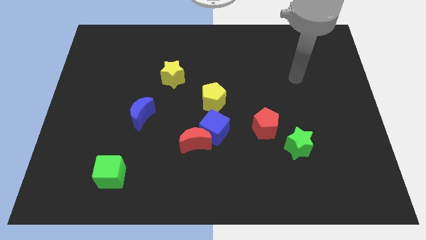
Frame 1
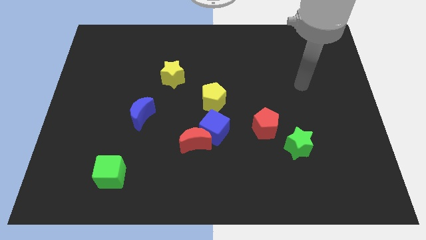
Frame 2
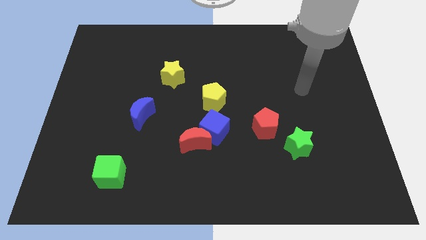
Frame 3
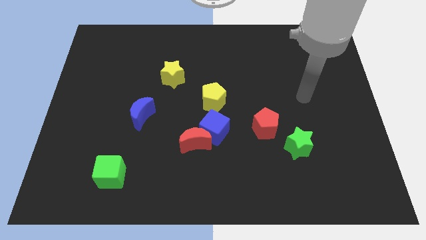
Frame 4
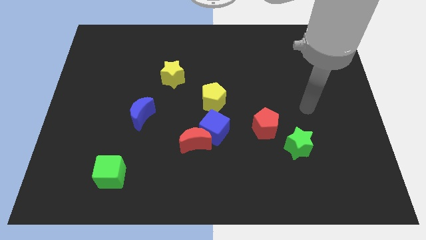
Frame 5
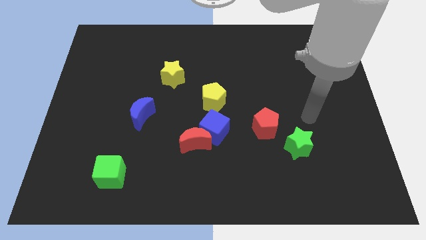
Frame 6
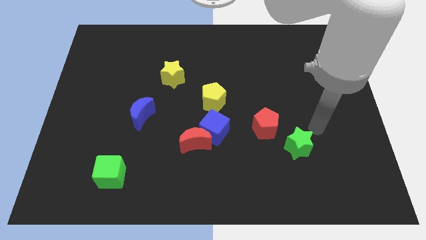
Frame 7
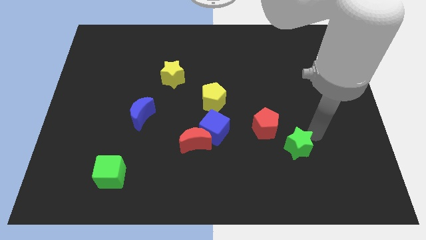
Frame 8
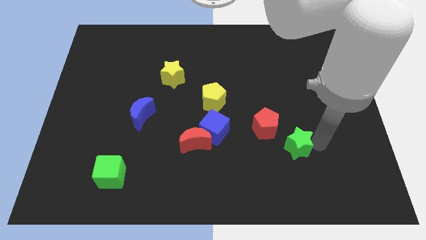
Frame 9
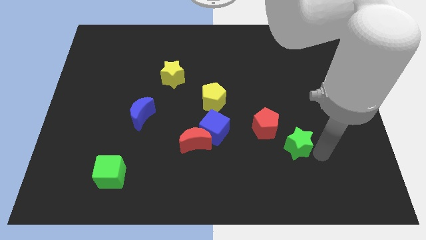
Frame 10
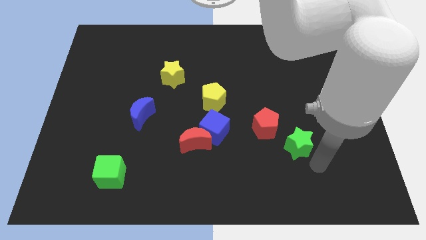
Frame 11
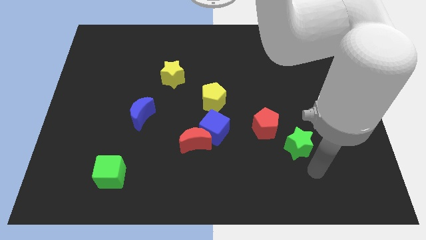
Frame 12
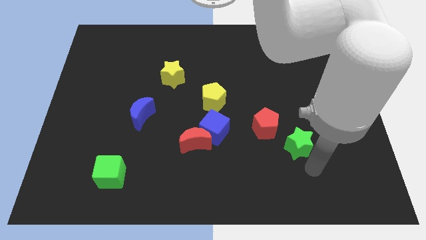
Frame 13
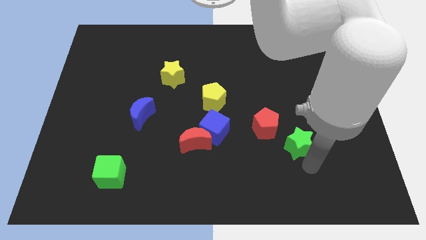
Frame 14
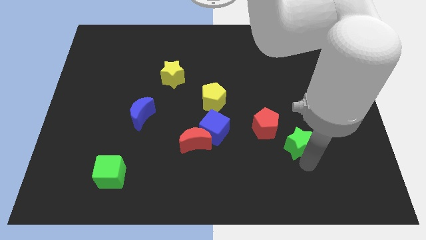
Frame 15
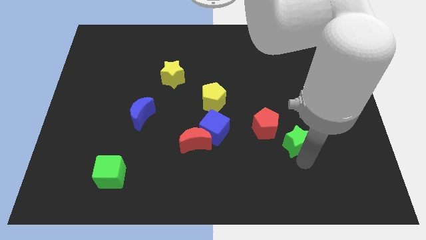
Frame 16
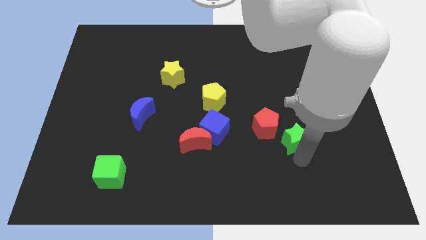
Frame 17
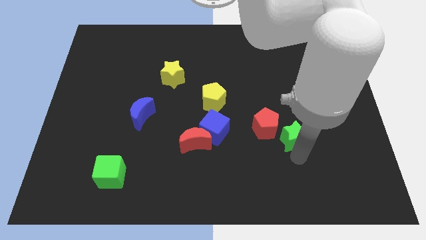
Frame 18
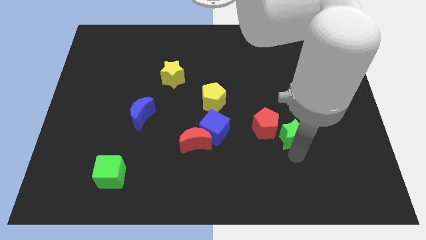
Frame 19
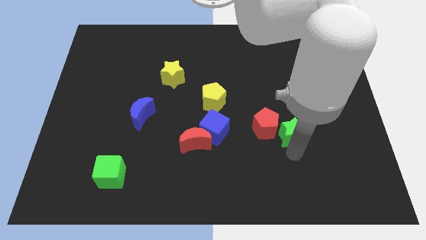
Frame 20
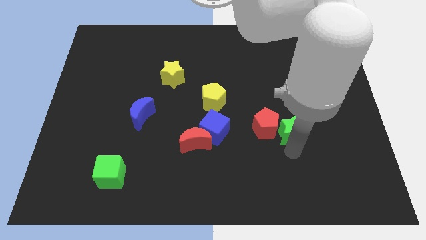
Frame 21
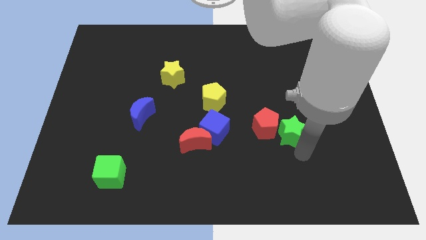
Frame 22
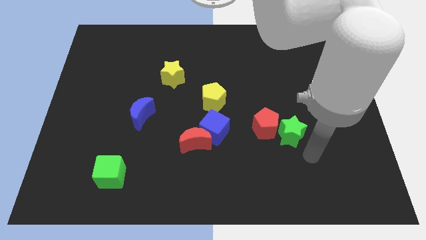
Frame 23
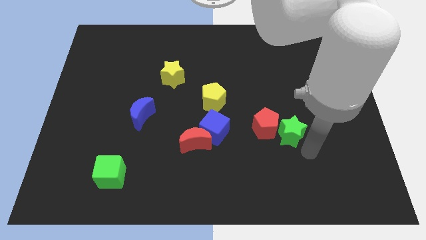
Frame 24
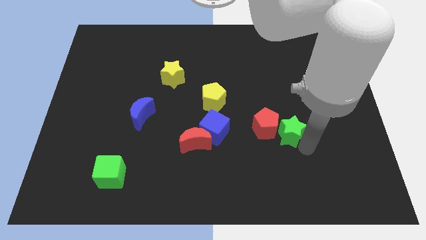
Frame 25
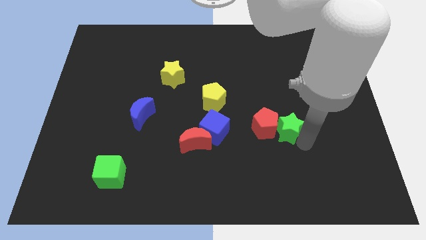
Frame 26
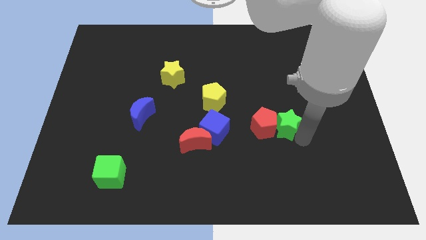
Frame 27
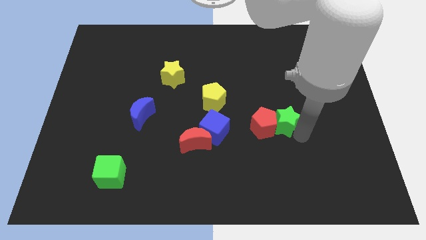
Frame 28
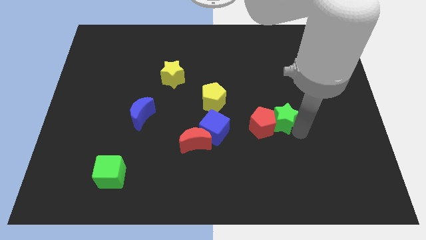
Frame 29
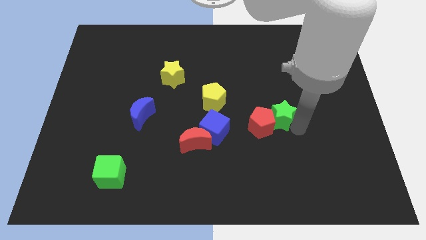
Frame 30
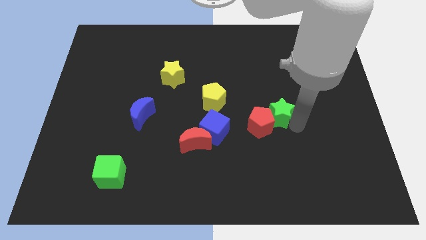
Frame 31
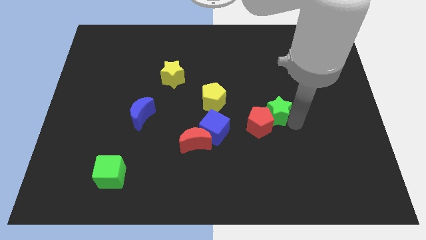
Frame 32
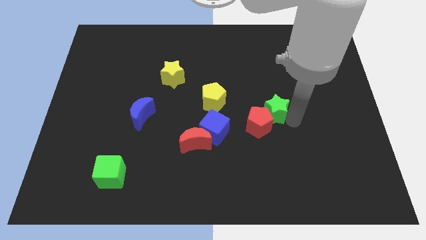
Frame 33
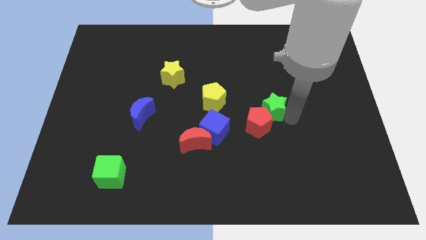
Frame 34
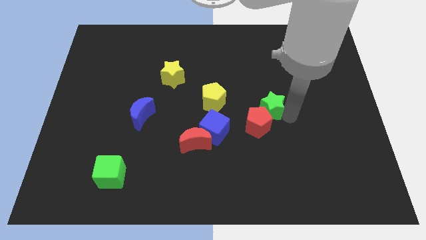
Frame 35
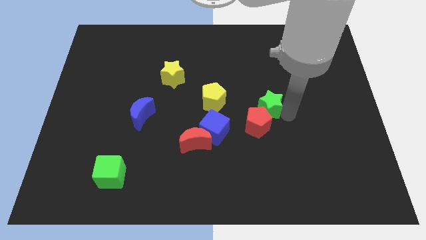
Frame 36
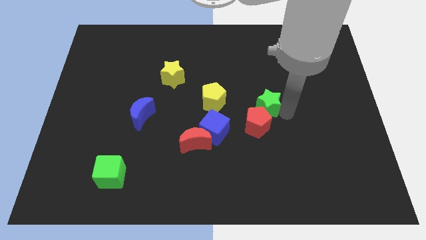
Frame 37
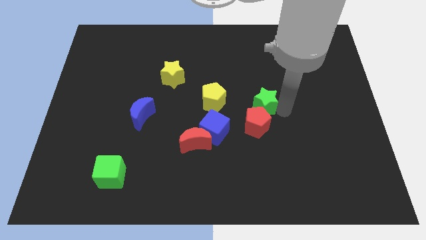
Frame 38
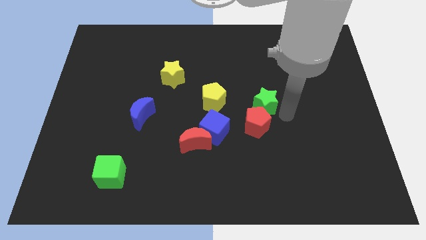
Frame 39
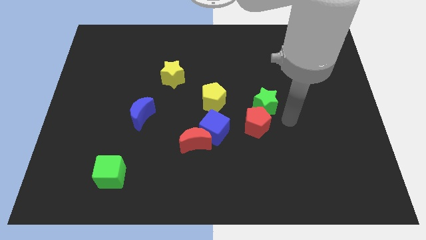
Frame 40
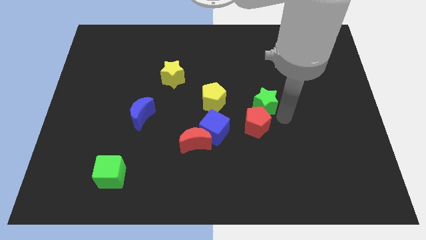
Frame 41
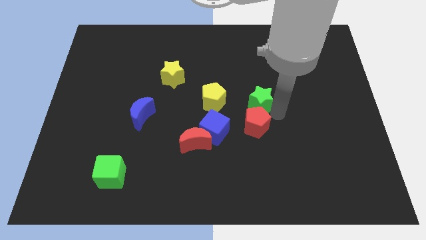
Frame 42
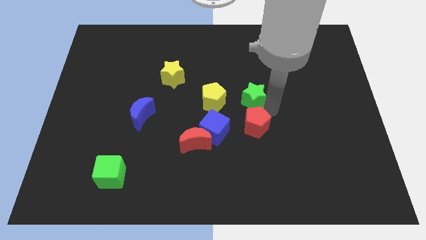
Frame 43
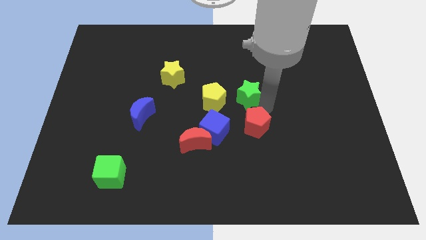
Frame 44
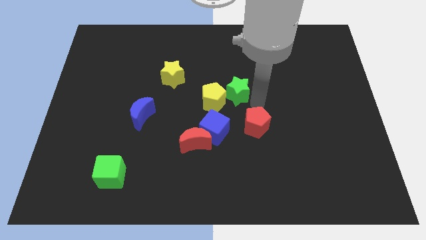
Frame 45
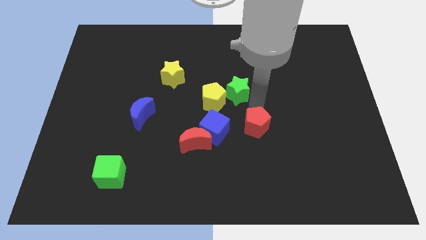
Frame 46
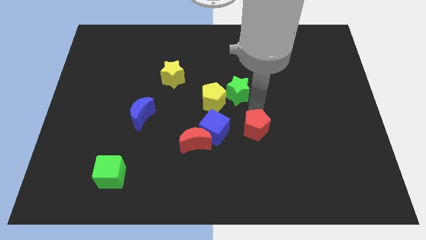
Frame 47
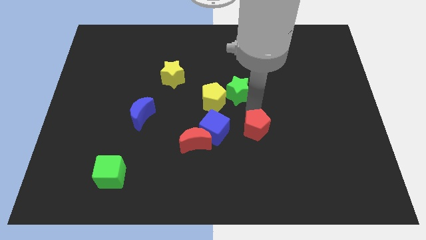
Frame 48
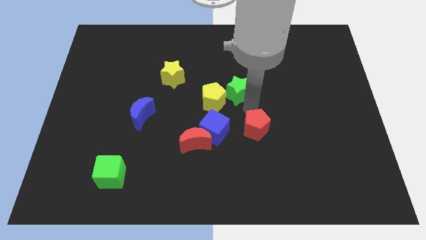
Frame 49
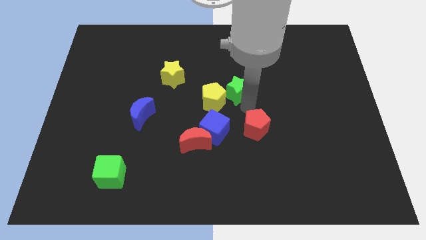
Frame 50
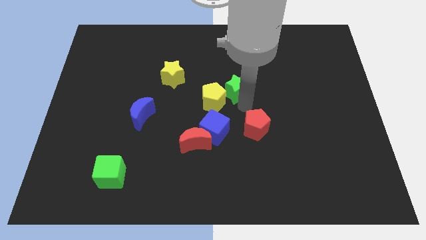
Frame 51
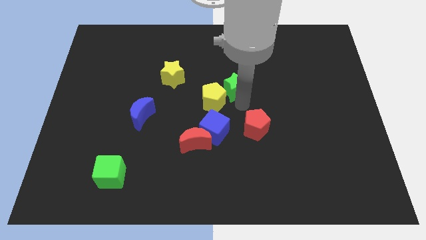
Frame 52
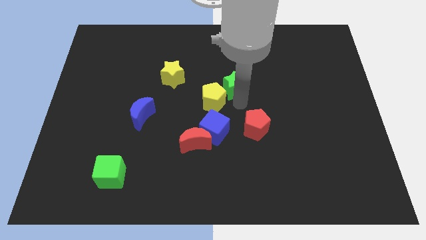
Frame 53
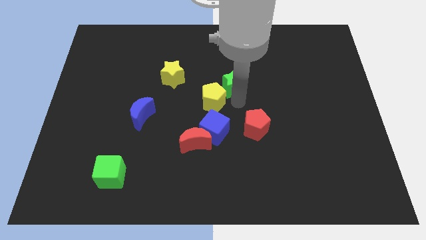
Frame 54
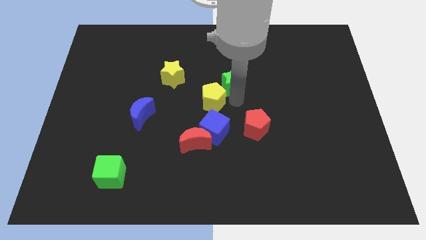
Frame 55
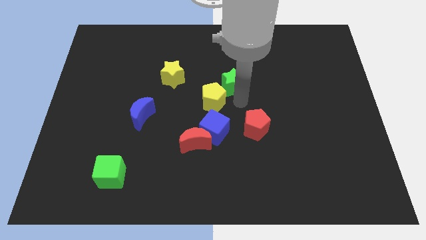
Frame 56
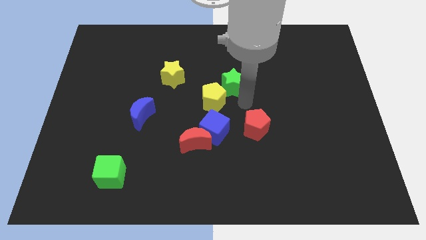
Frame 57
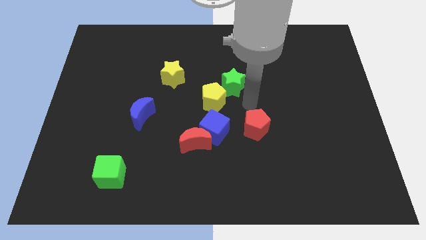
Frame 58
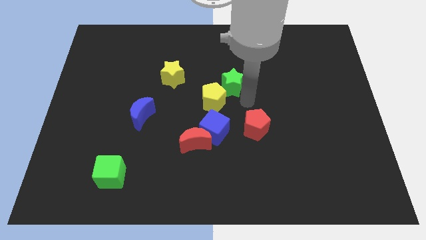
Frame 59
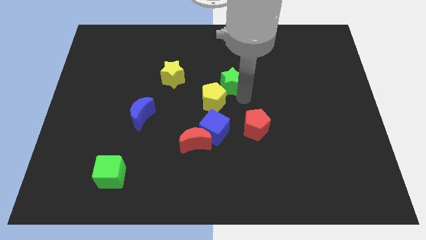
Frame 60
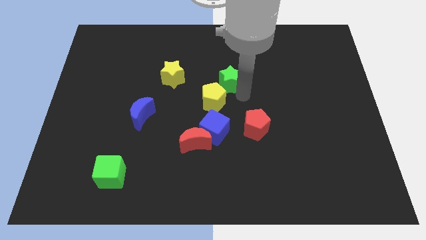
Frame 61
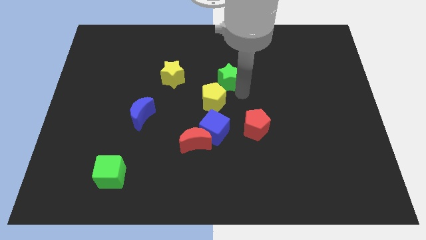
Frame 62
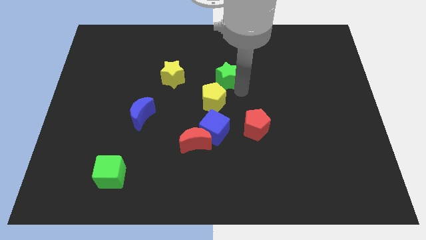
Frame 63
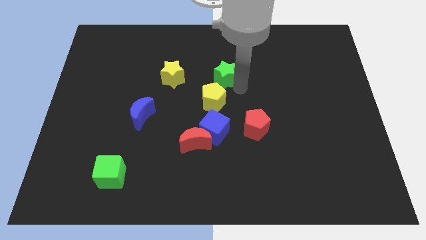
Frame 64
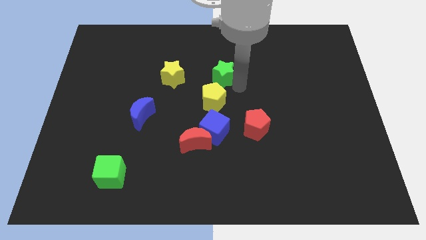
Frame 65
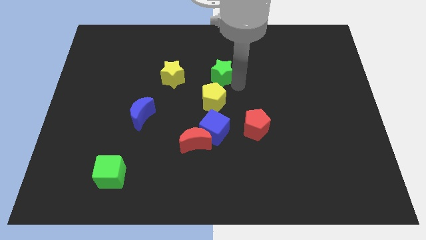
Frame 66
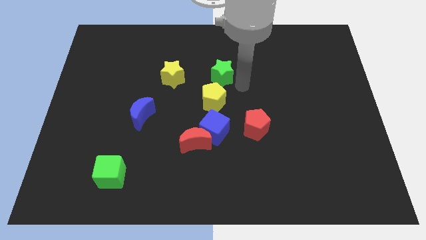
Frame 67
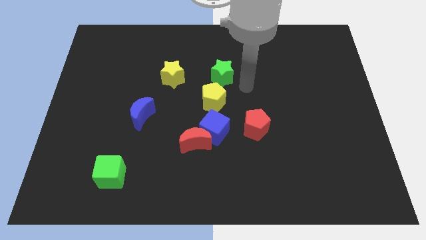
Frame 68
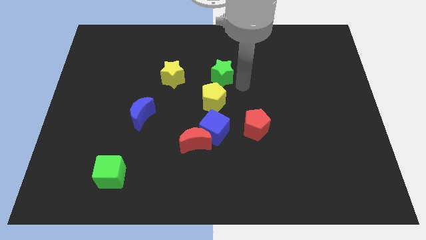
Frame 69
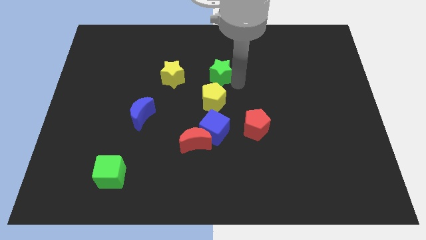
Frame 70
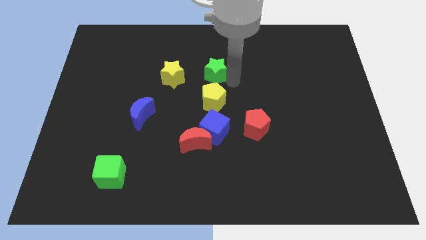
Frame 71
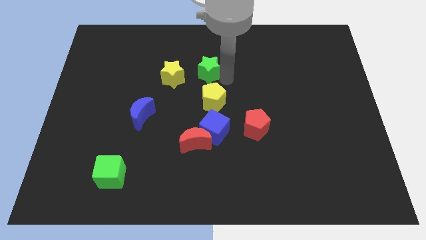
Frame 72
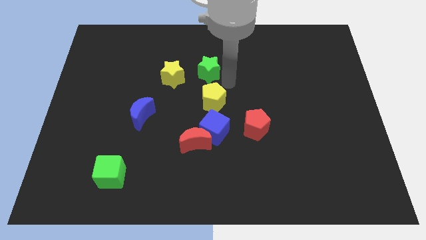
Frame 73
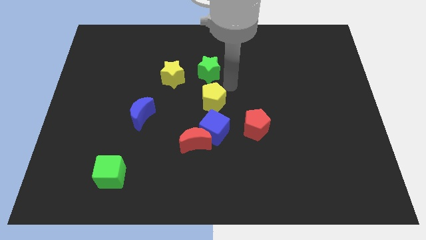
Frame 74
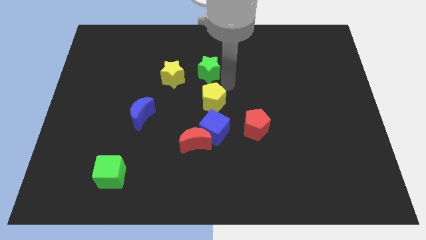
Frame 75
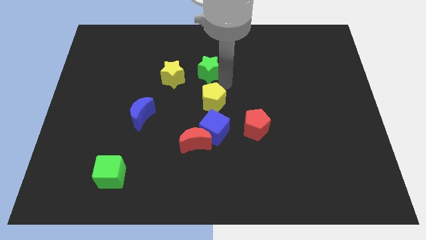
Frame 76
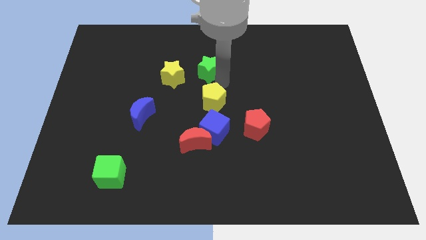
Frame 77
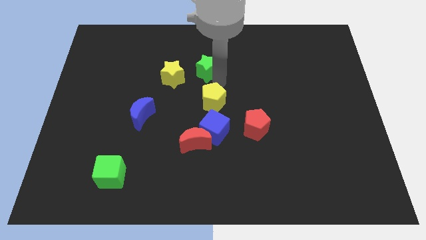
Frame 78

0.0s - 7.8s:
put the green star diagonally up and to the right of the yellow star
